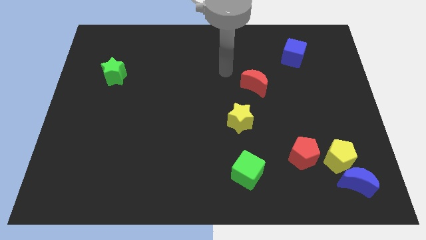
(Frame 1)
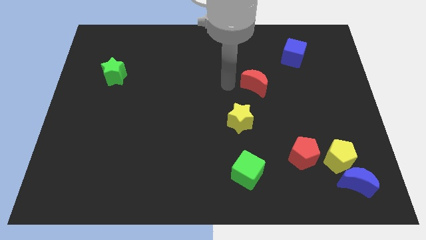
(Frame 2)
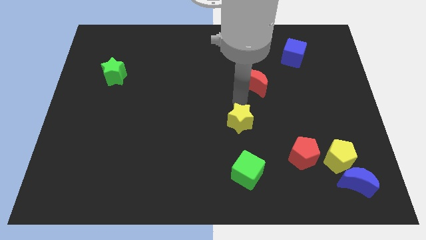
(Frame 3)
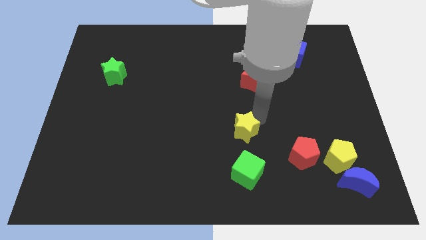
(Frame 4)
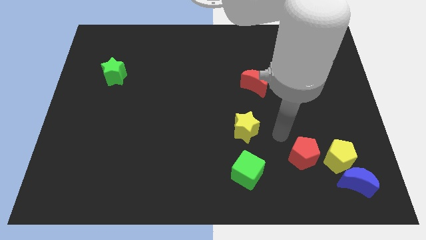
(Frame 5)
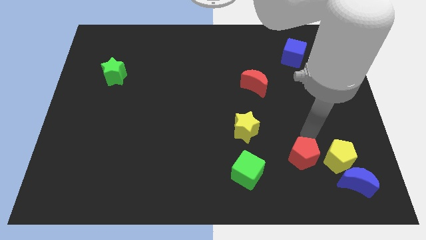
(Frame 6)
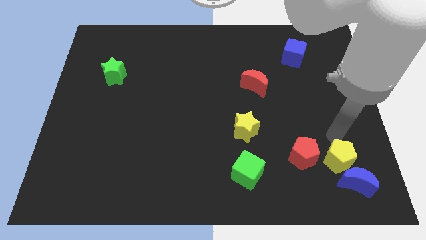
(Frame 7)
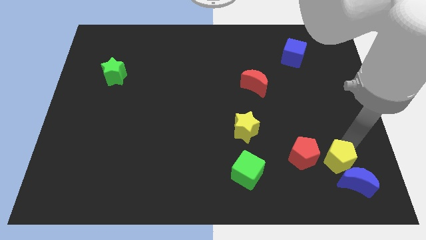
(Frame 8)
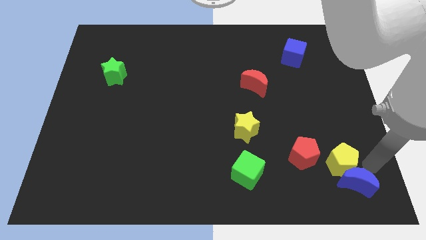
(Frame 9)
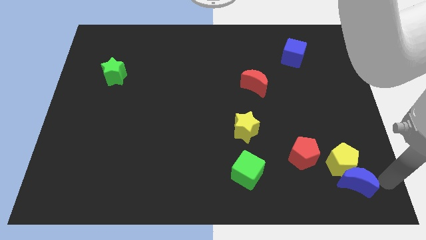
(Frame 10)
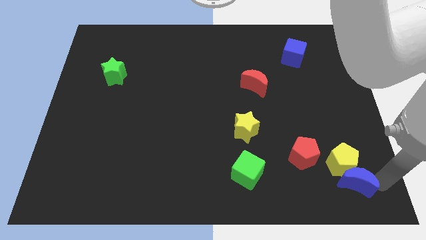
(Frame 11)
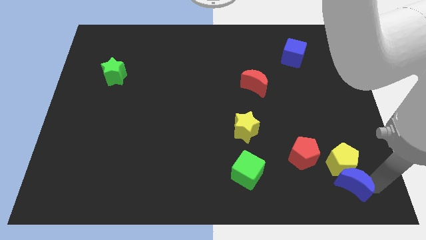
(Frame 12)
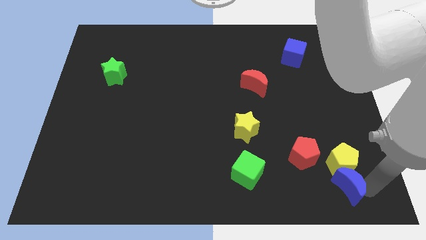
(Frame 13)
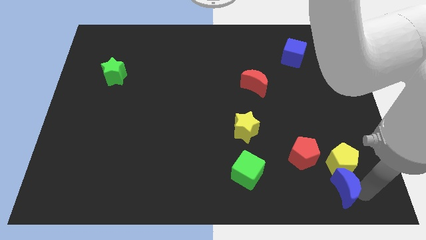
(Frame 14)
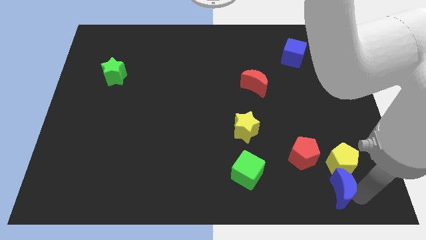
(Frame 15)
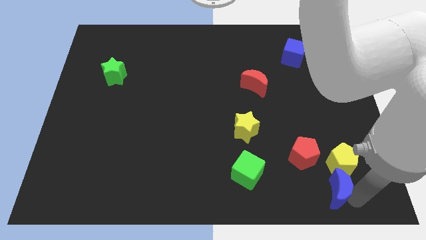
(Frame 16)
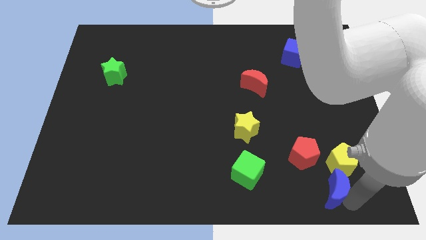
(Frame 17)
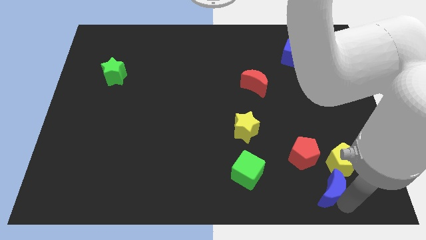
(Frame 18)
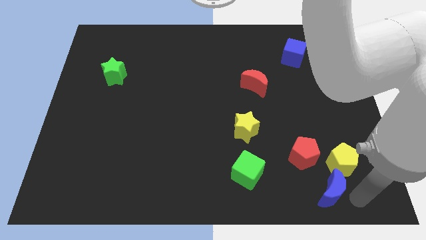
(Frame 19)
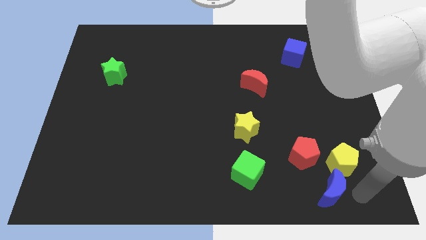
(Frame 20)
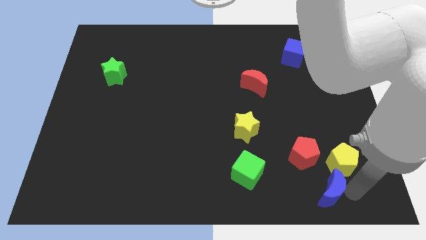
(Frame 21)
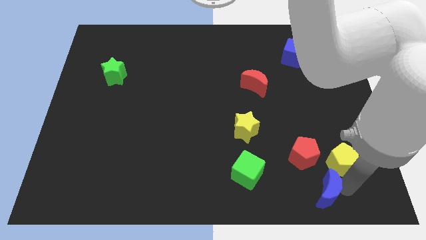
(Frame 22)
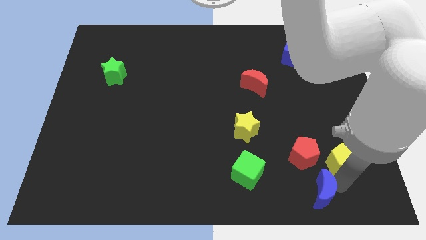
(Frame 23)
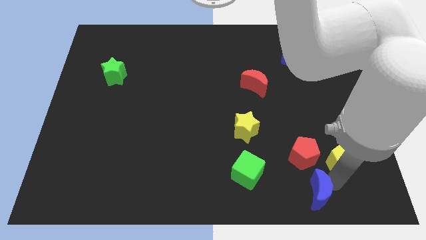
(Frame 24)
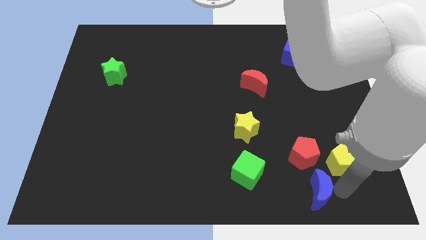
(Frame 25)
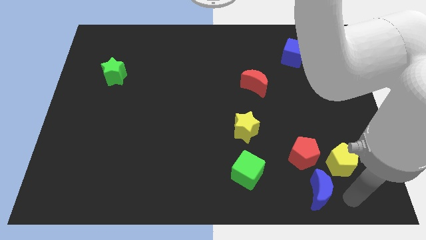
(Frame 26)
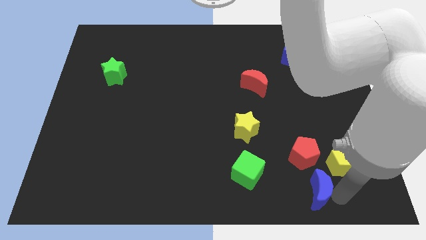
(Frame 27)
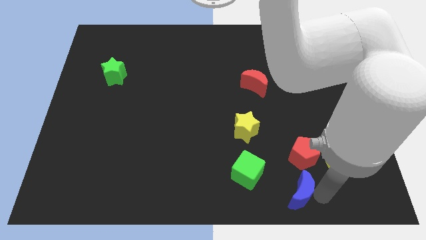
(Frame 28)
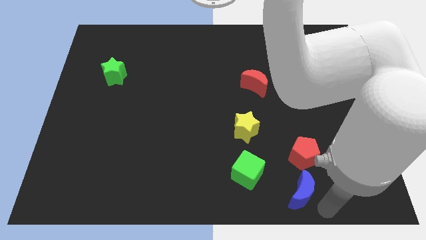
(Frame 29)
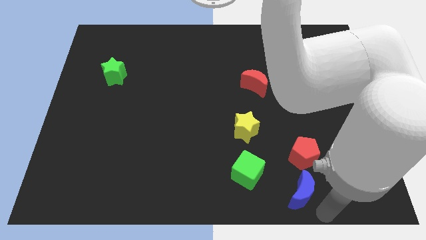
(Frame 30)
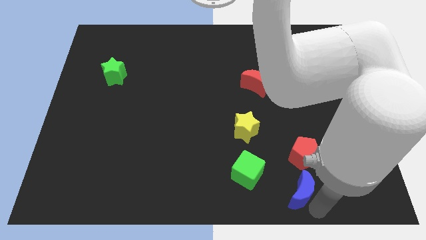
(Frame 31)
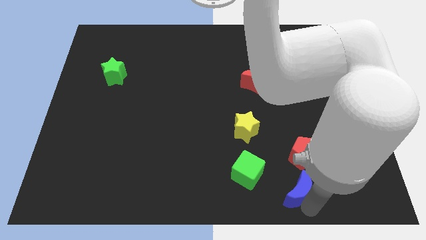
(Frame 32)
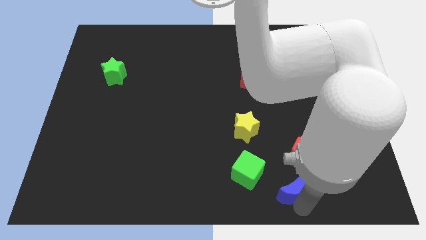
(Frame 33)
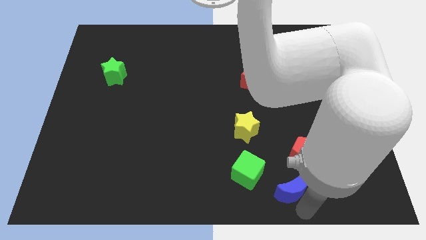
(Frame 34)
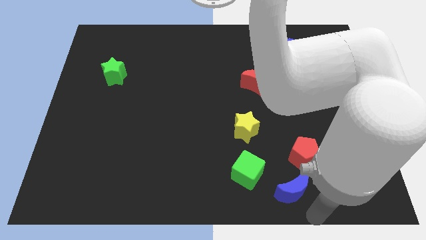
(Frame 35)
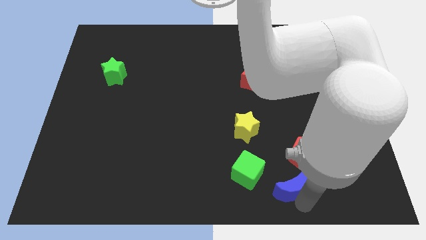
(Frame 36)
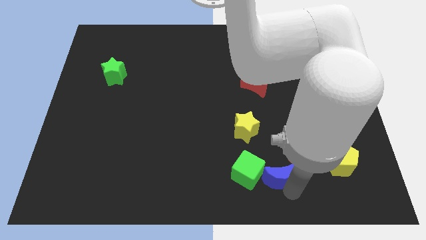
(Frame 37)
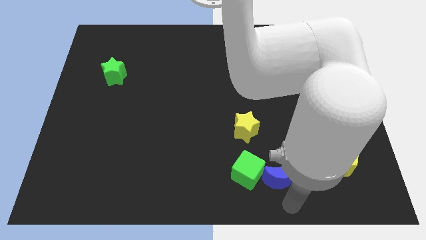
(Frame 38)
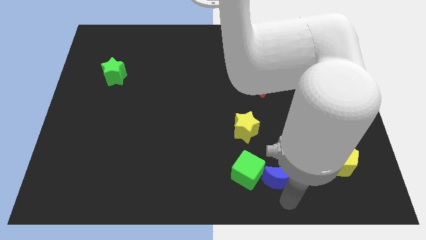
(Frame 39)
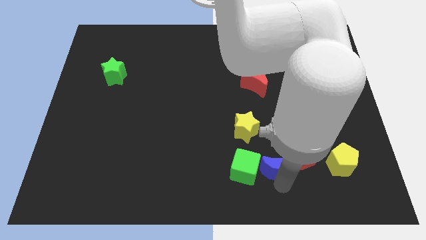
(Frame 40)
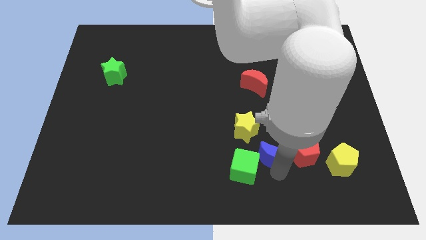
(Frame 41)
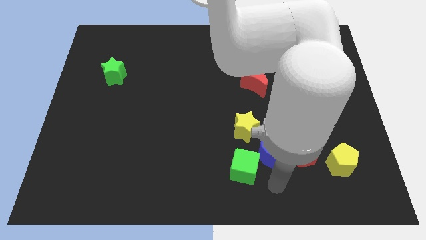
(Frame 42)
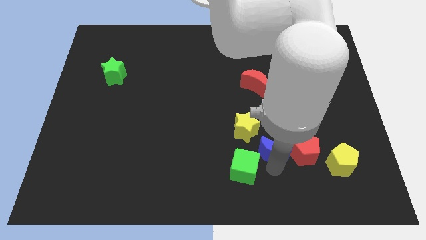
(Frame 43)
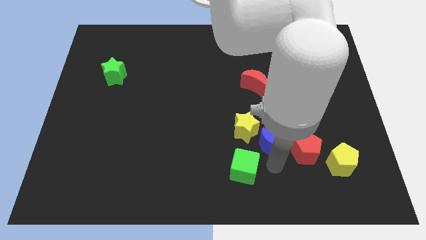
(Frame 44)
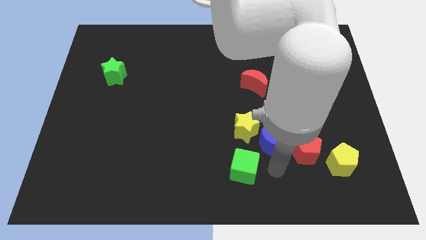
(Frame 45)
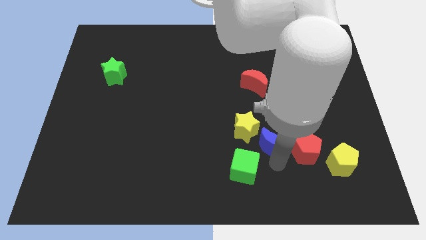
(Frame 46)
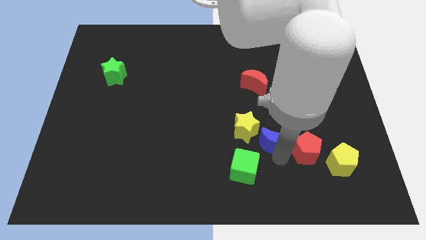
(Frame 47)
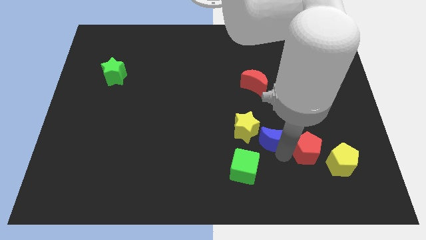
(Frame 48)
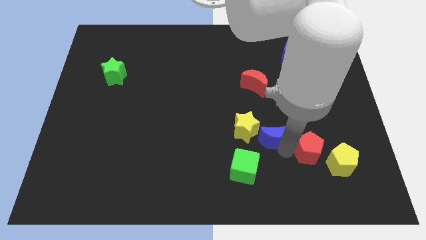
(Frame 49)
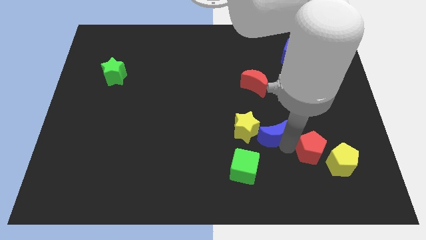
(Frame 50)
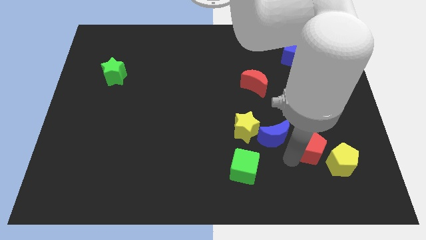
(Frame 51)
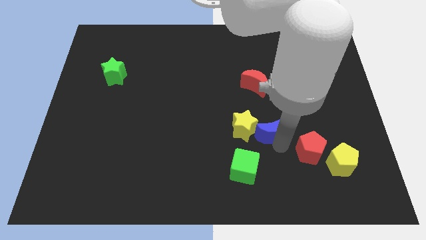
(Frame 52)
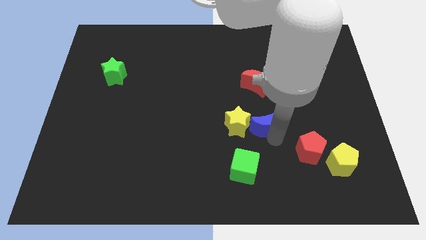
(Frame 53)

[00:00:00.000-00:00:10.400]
move the blue moon diagonally upwards and left

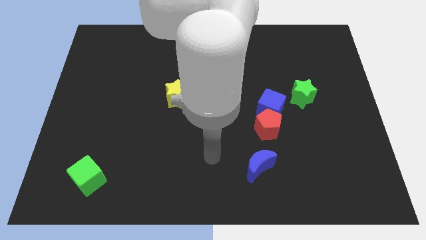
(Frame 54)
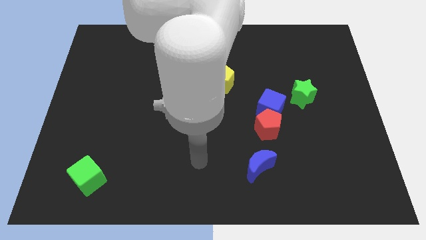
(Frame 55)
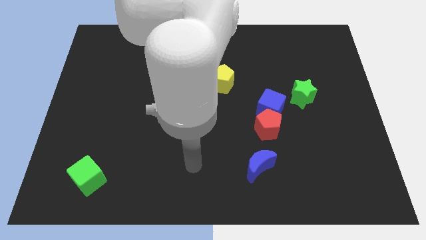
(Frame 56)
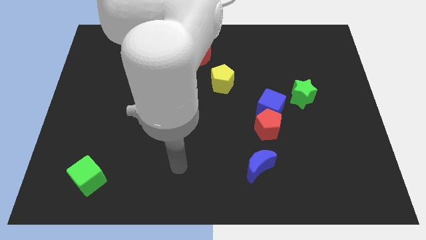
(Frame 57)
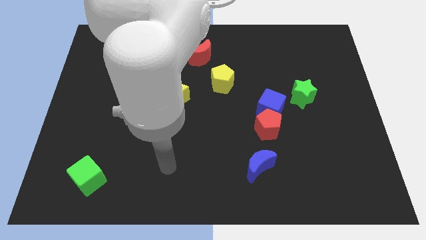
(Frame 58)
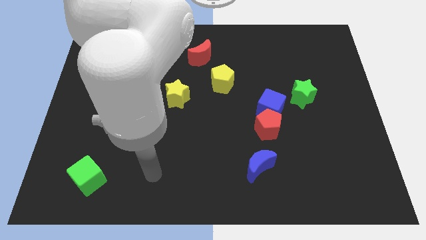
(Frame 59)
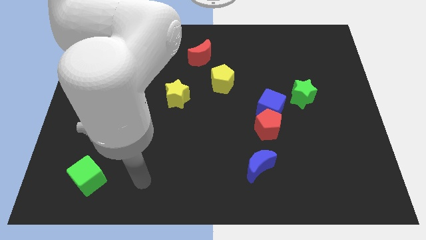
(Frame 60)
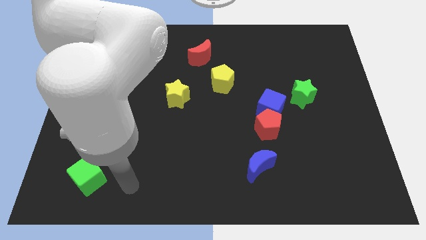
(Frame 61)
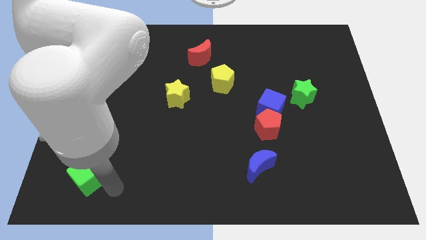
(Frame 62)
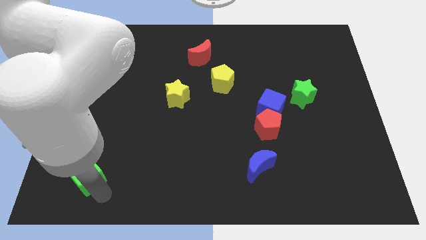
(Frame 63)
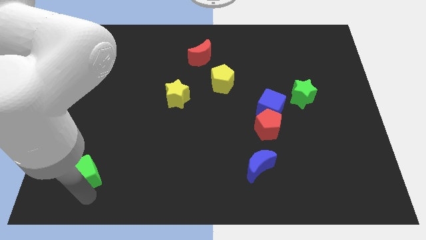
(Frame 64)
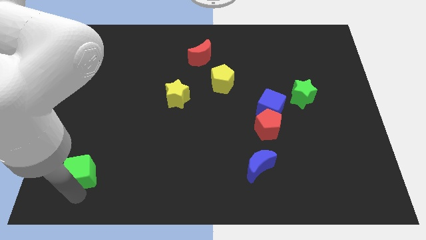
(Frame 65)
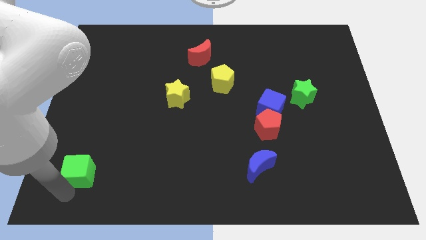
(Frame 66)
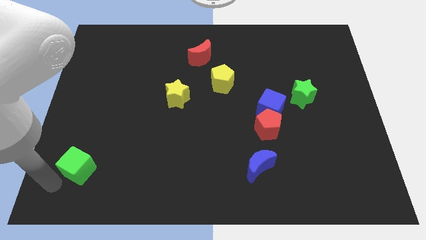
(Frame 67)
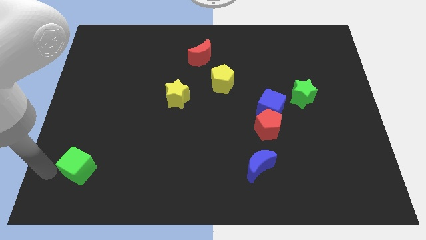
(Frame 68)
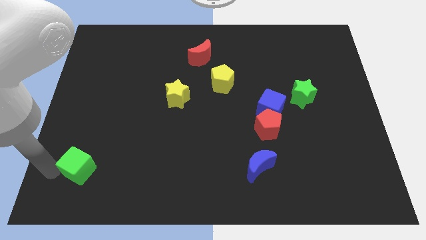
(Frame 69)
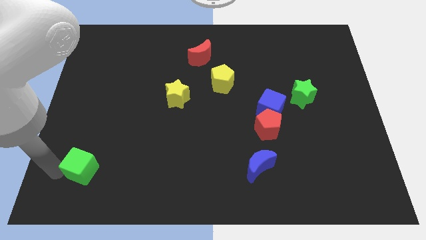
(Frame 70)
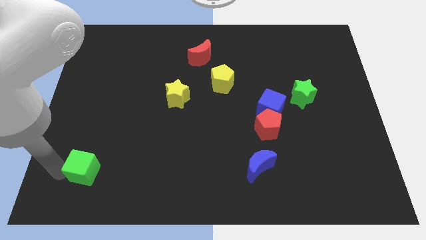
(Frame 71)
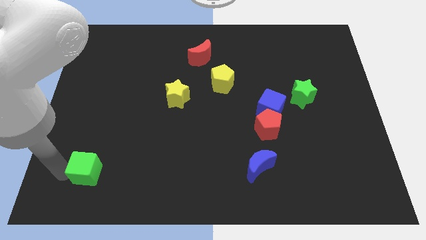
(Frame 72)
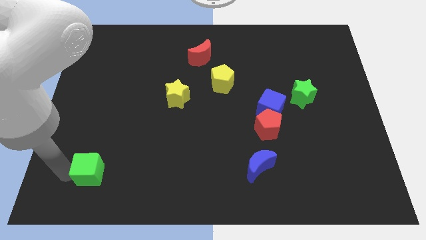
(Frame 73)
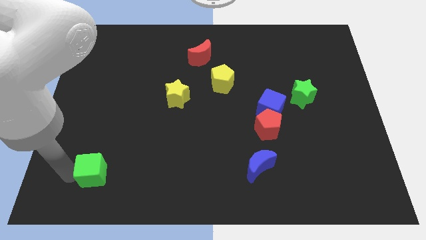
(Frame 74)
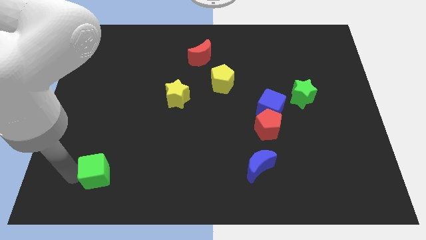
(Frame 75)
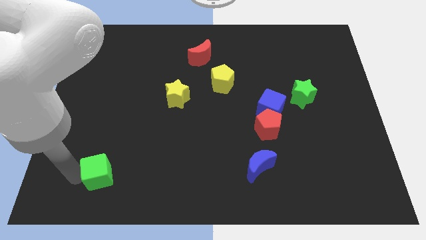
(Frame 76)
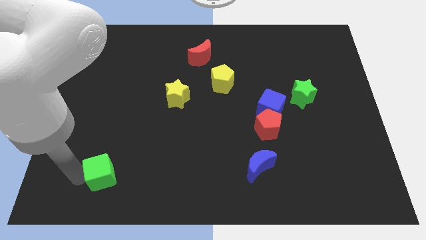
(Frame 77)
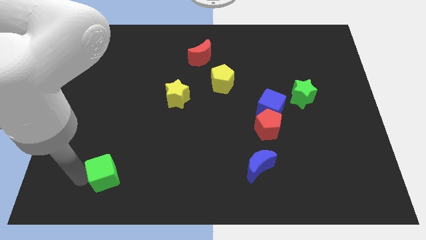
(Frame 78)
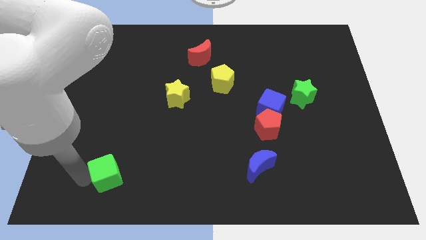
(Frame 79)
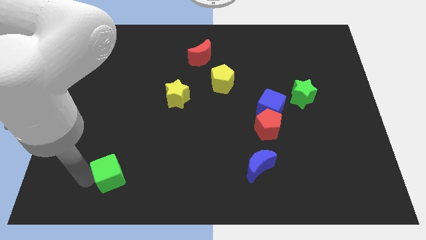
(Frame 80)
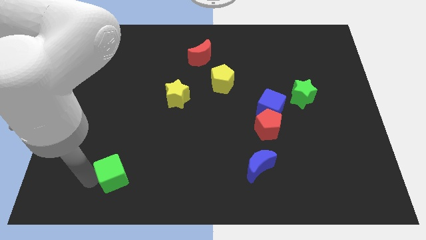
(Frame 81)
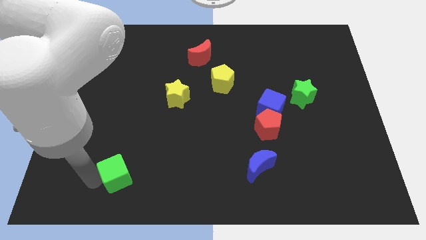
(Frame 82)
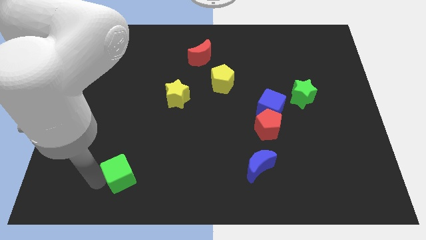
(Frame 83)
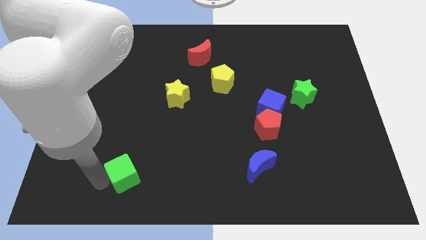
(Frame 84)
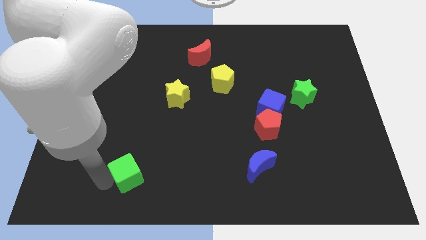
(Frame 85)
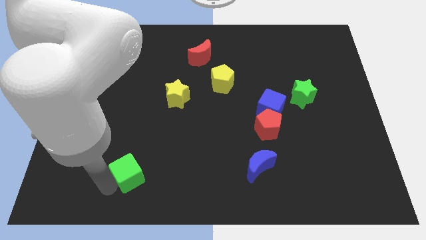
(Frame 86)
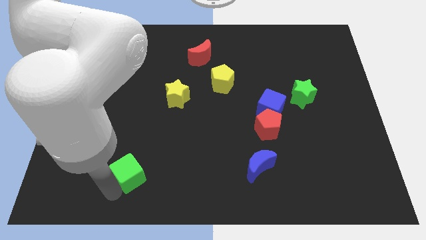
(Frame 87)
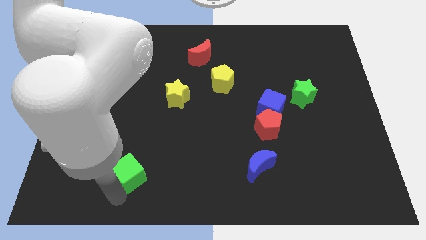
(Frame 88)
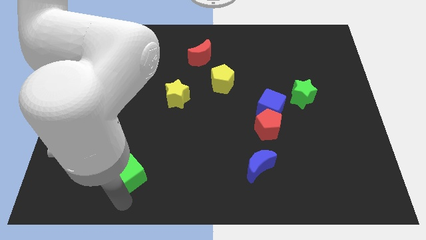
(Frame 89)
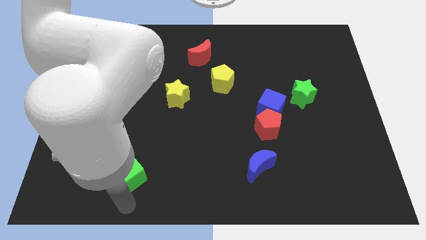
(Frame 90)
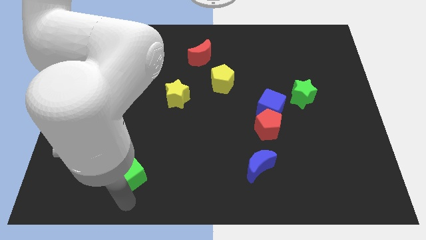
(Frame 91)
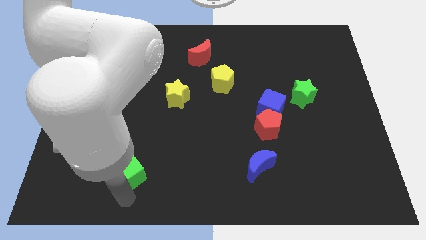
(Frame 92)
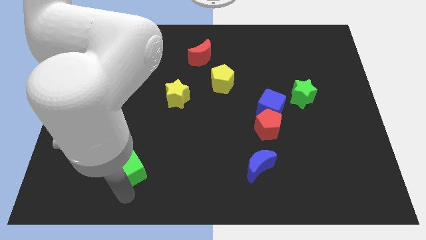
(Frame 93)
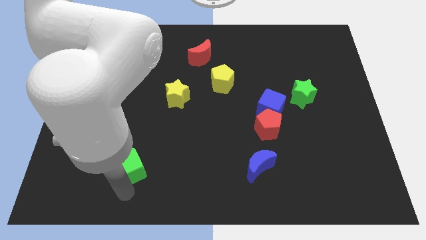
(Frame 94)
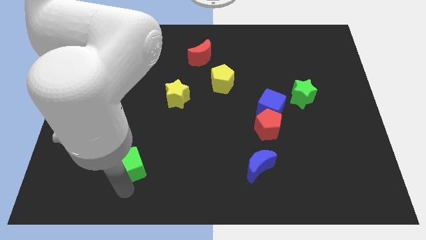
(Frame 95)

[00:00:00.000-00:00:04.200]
slightly slide the green cube upwards and to the right
